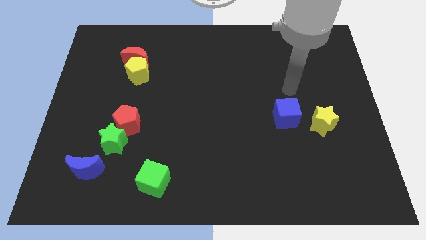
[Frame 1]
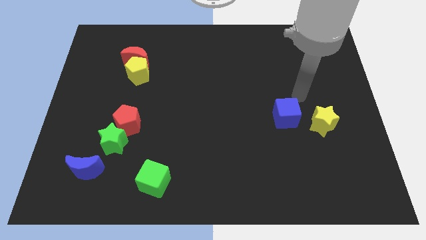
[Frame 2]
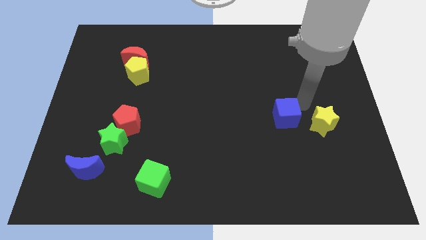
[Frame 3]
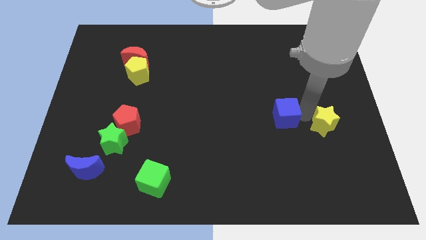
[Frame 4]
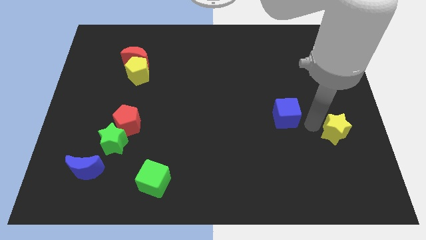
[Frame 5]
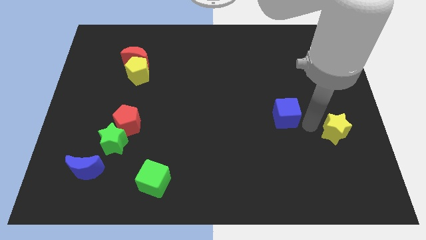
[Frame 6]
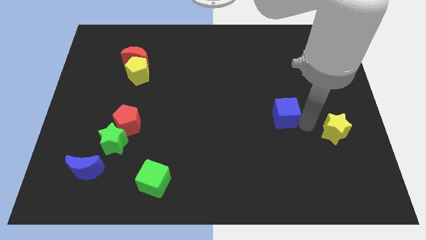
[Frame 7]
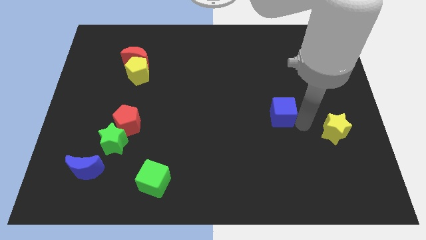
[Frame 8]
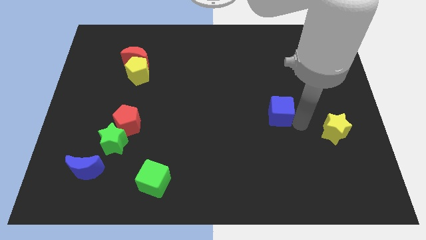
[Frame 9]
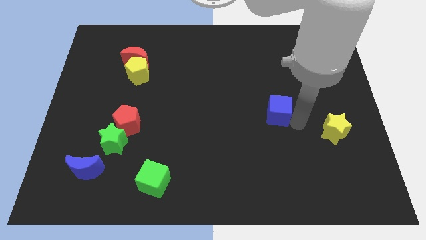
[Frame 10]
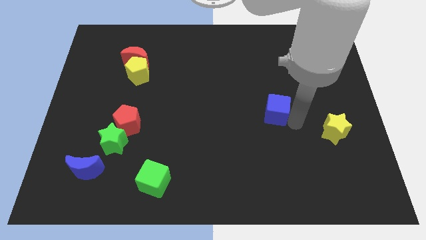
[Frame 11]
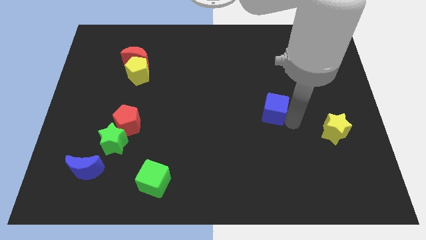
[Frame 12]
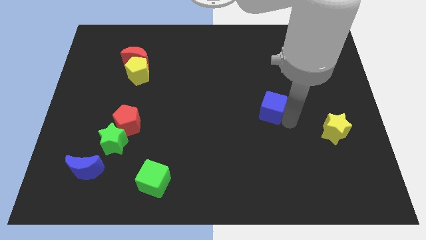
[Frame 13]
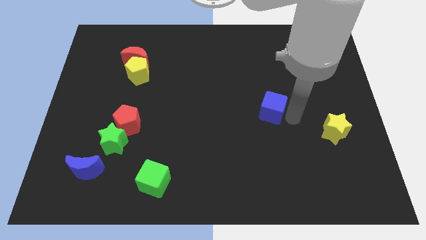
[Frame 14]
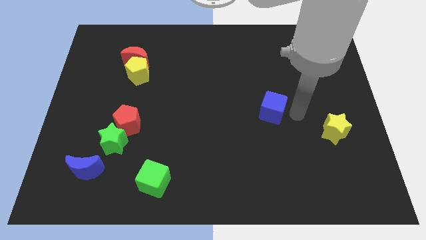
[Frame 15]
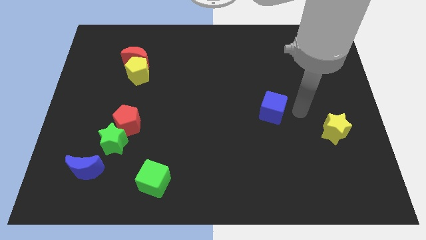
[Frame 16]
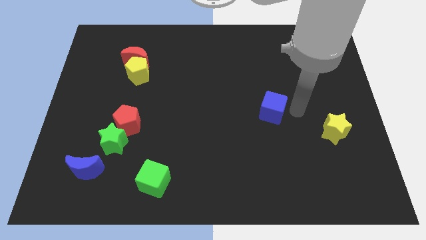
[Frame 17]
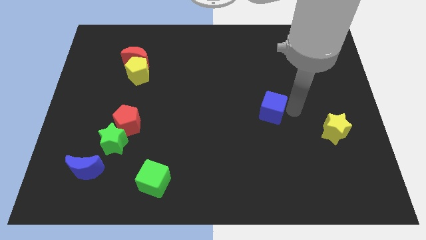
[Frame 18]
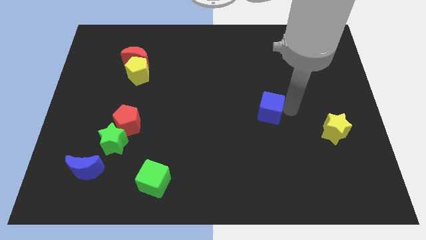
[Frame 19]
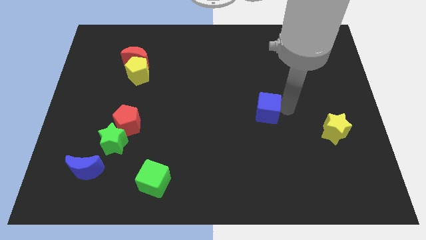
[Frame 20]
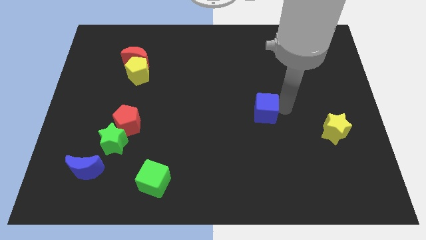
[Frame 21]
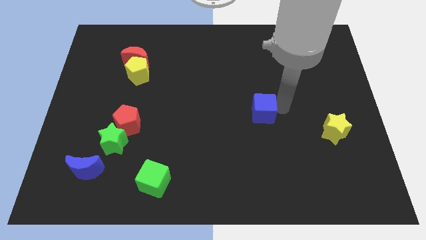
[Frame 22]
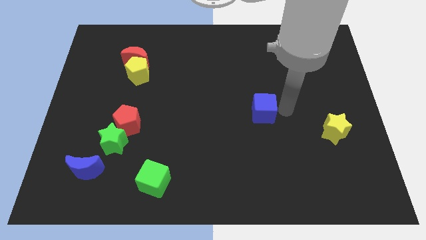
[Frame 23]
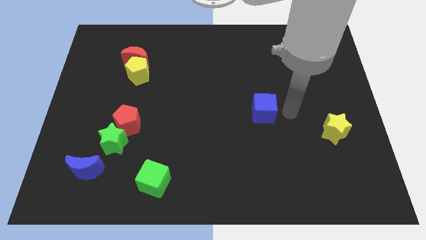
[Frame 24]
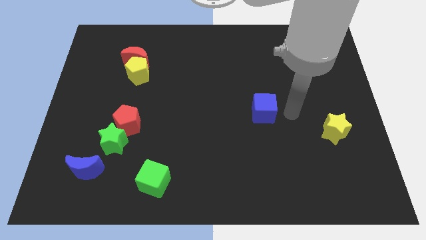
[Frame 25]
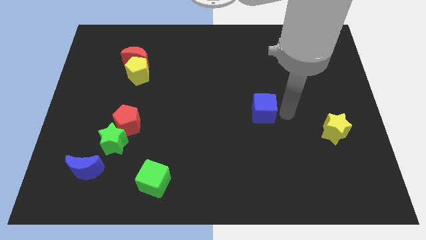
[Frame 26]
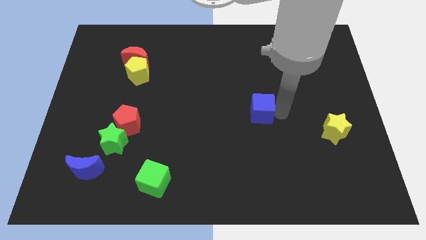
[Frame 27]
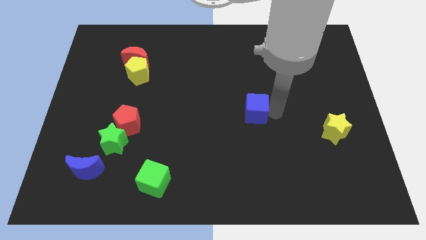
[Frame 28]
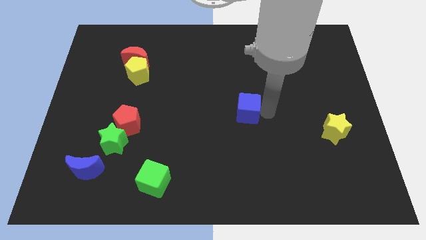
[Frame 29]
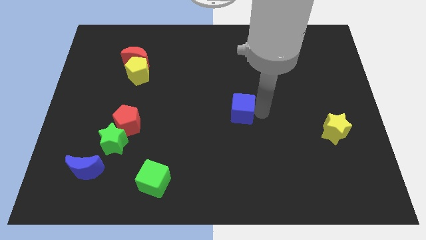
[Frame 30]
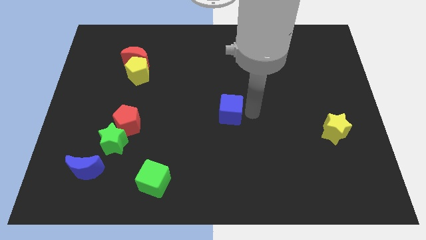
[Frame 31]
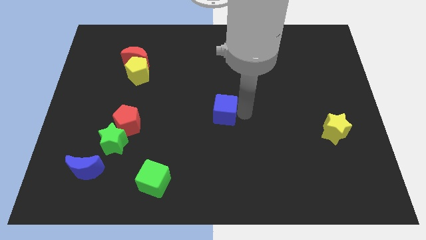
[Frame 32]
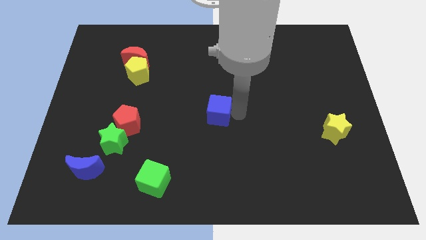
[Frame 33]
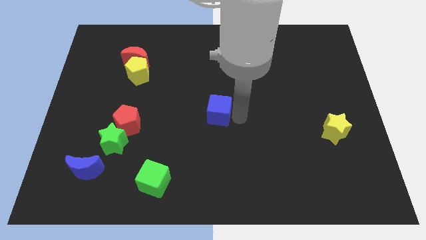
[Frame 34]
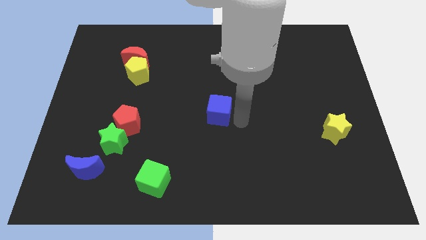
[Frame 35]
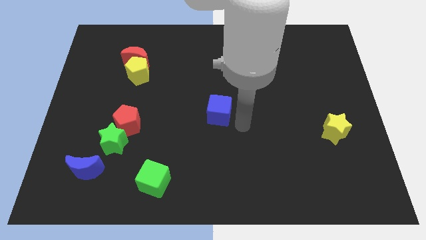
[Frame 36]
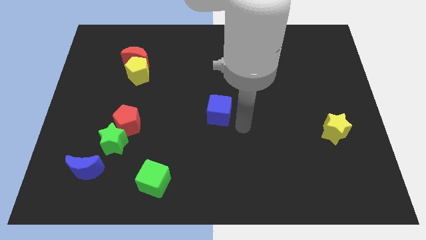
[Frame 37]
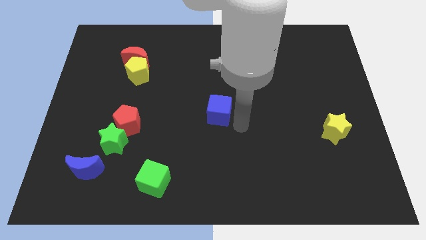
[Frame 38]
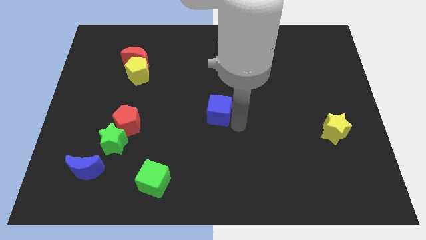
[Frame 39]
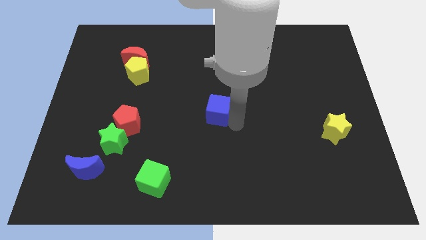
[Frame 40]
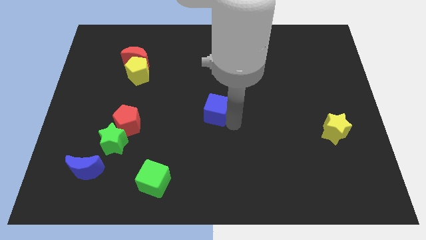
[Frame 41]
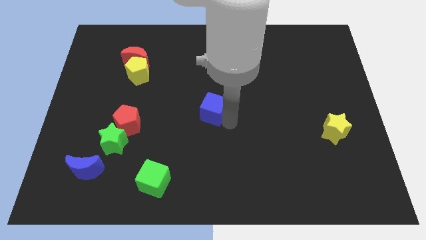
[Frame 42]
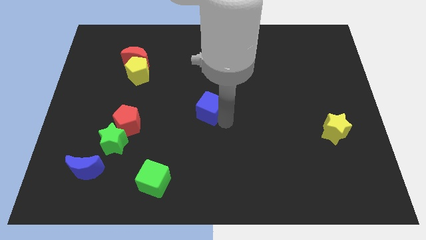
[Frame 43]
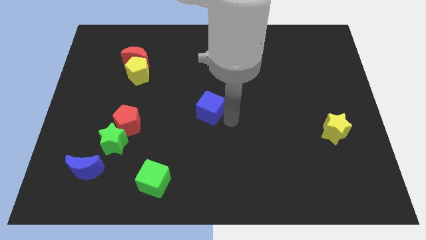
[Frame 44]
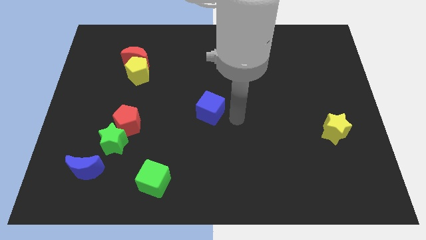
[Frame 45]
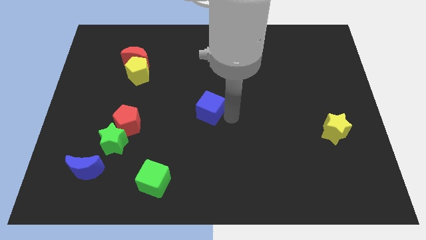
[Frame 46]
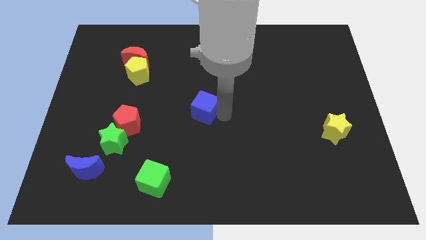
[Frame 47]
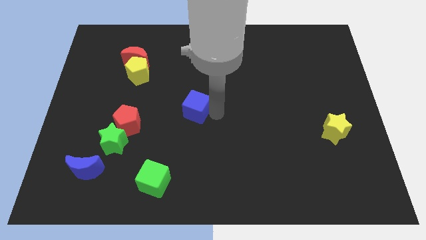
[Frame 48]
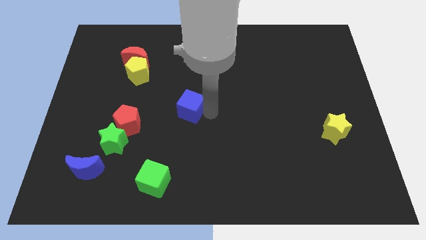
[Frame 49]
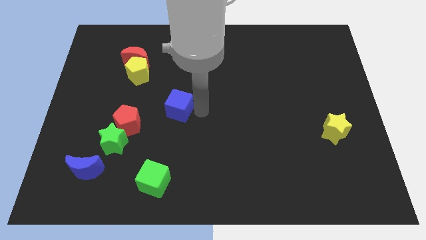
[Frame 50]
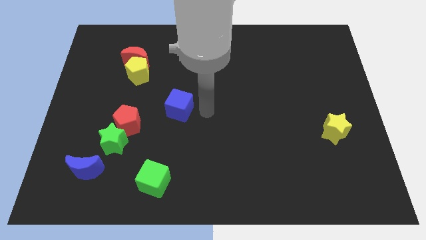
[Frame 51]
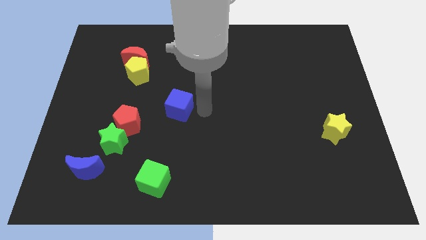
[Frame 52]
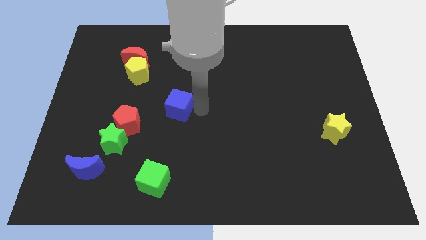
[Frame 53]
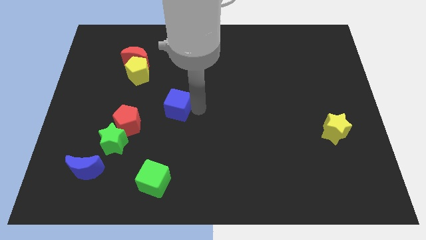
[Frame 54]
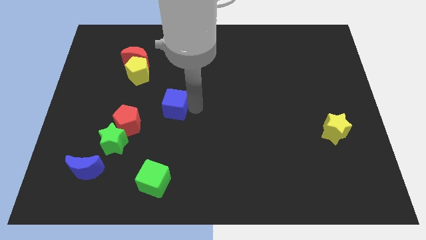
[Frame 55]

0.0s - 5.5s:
slide the blue cube diagonally up and to the right of the red pentagon

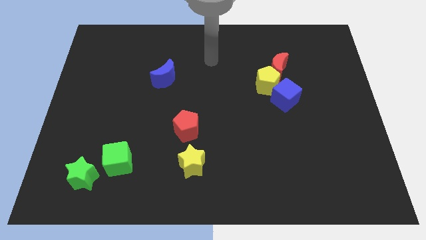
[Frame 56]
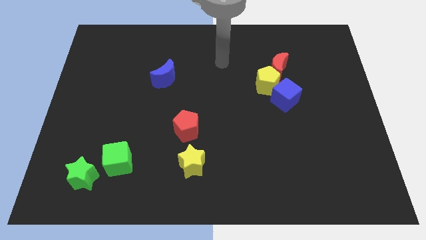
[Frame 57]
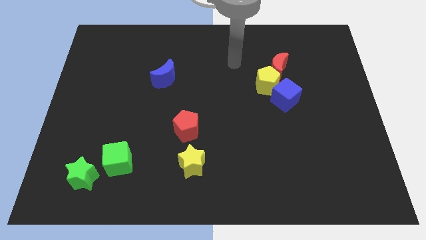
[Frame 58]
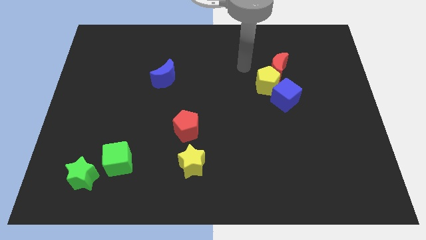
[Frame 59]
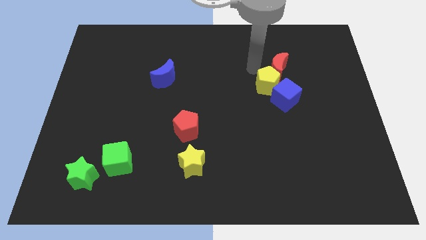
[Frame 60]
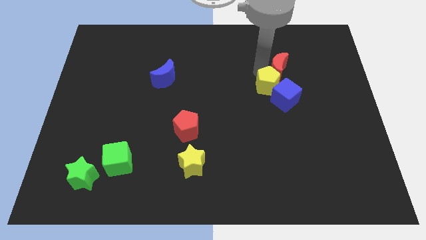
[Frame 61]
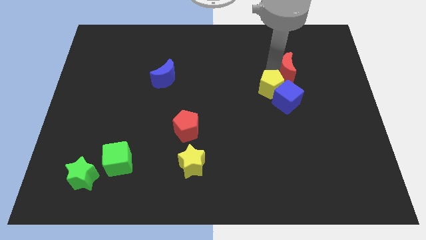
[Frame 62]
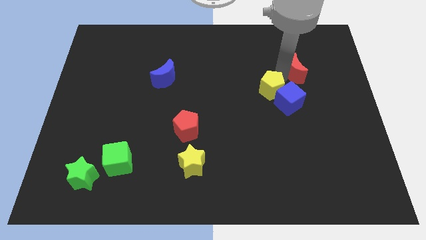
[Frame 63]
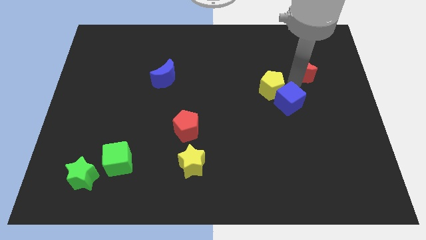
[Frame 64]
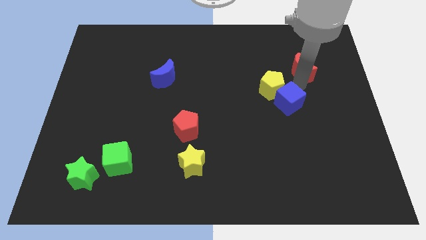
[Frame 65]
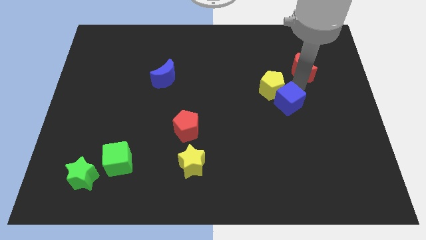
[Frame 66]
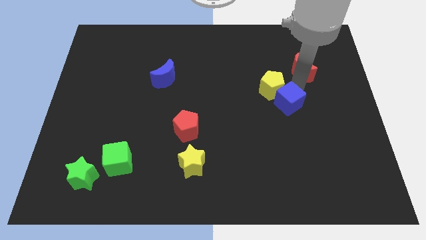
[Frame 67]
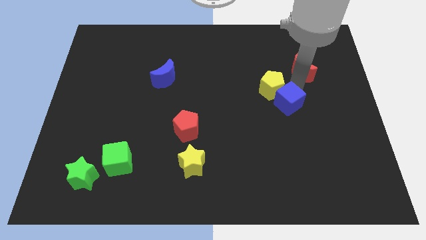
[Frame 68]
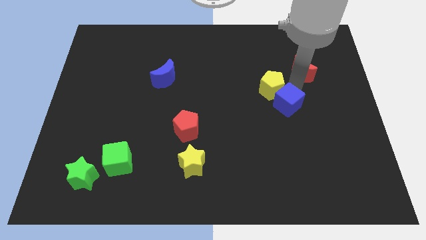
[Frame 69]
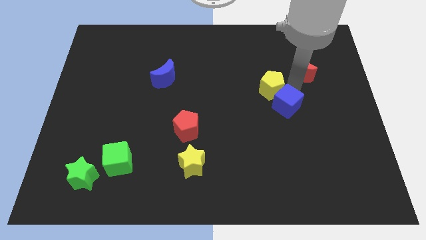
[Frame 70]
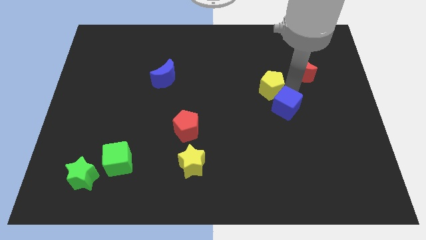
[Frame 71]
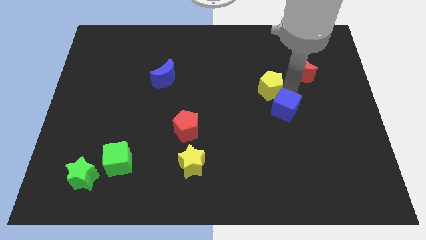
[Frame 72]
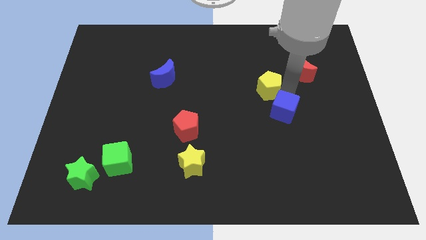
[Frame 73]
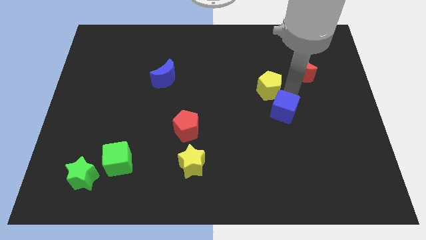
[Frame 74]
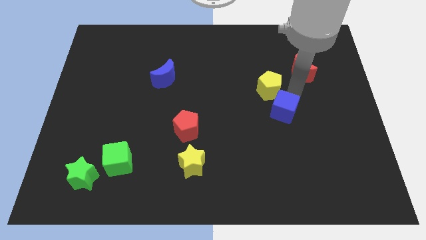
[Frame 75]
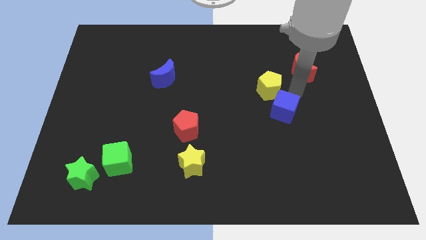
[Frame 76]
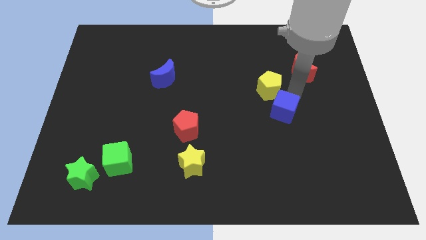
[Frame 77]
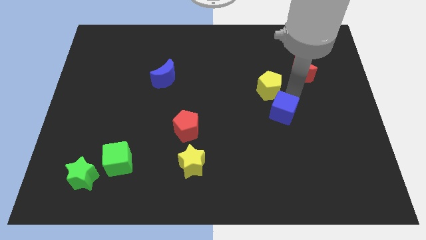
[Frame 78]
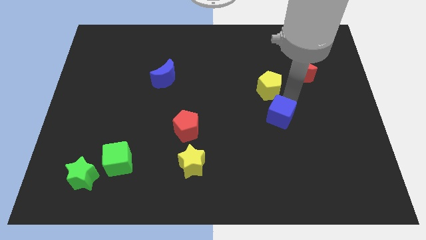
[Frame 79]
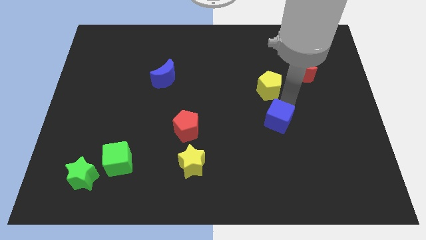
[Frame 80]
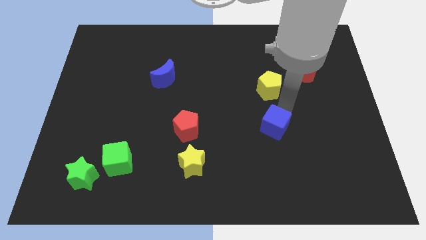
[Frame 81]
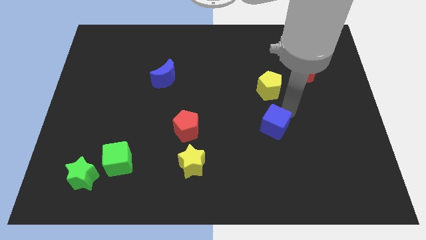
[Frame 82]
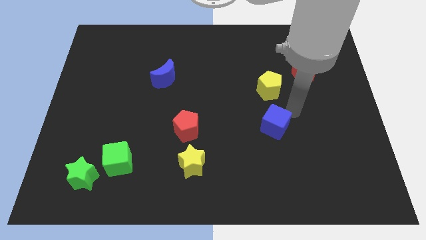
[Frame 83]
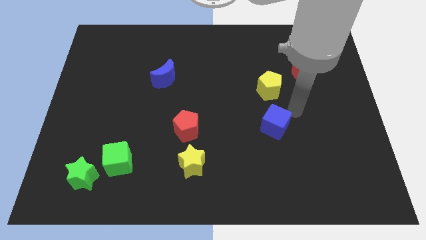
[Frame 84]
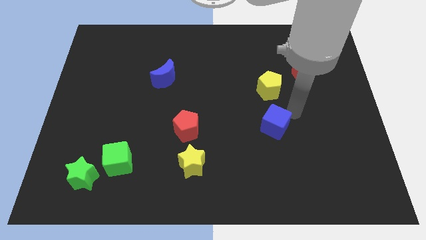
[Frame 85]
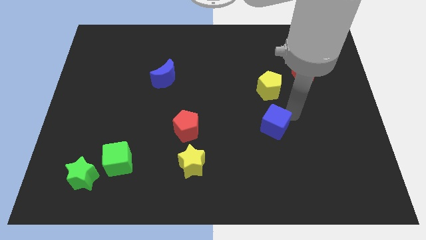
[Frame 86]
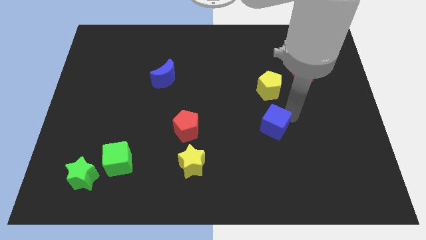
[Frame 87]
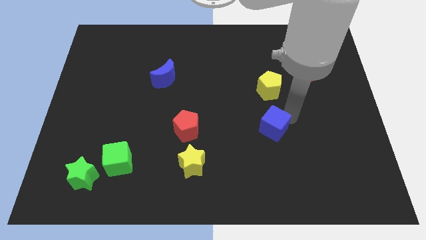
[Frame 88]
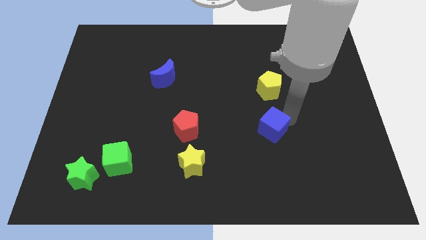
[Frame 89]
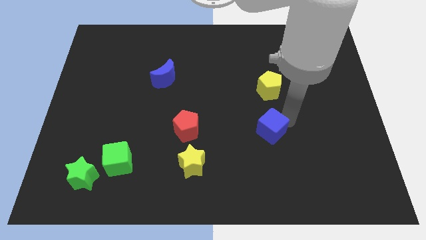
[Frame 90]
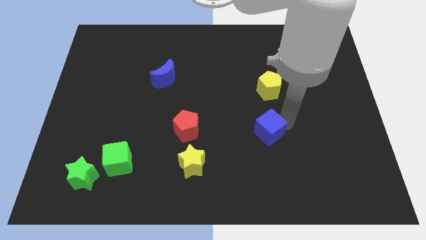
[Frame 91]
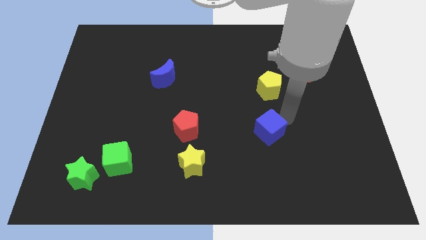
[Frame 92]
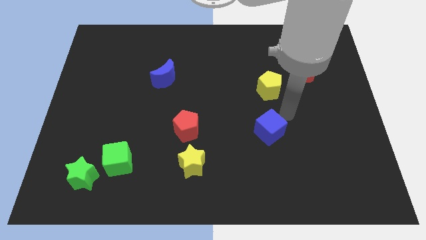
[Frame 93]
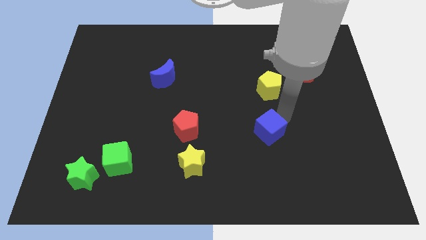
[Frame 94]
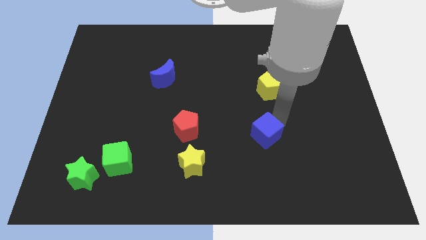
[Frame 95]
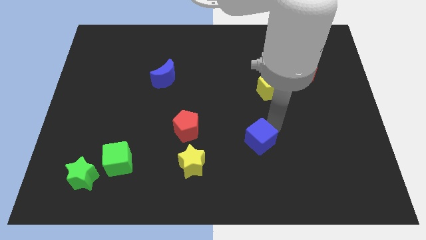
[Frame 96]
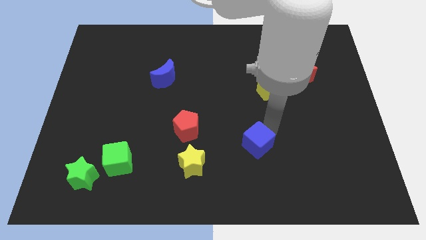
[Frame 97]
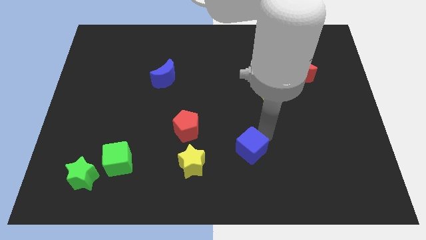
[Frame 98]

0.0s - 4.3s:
put the blue cube right of the yellow star
